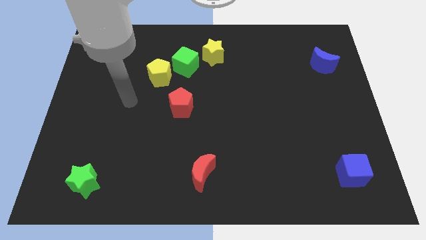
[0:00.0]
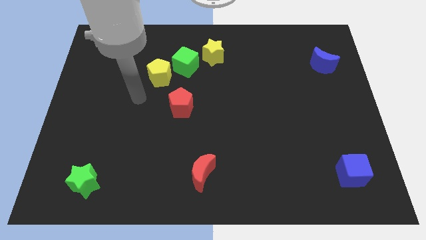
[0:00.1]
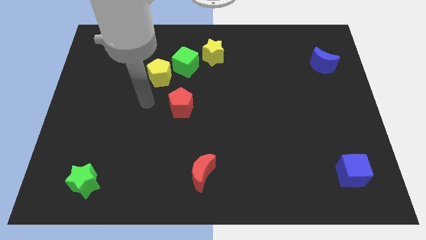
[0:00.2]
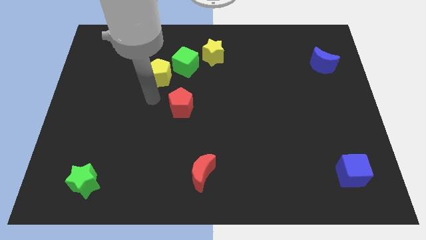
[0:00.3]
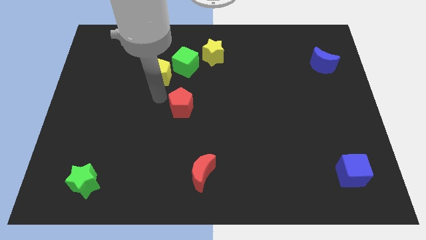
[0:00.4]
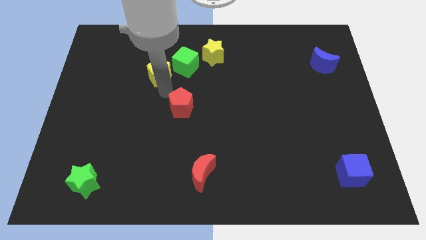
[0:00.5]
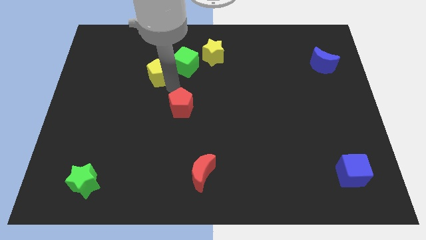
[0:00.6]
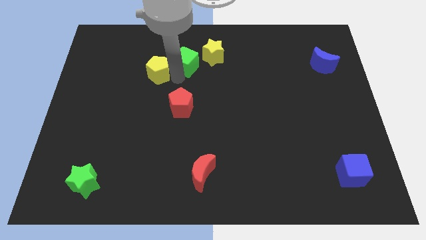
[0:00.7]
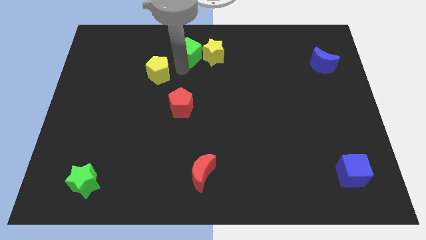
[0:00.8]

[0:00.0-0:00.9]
separate the yellow pentagon from the green cube

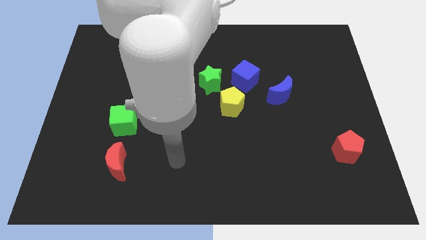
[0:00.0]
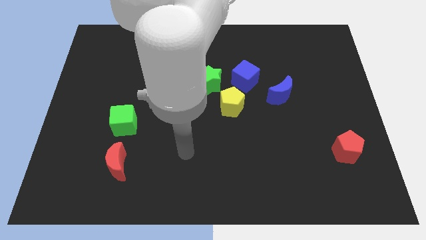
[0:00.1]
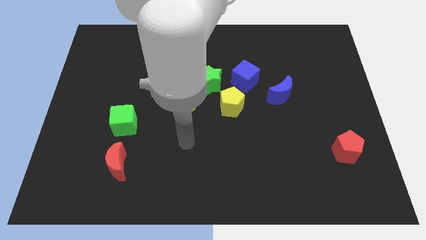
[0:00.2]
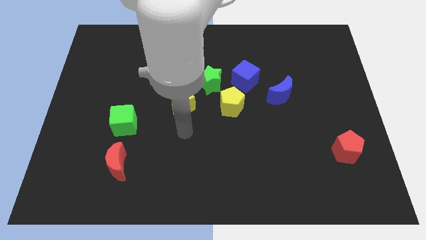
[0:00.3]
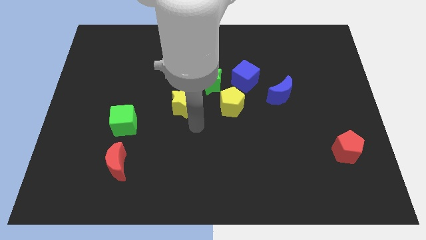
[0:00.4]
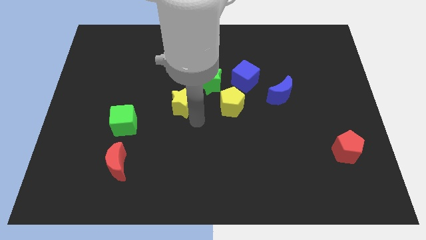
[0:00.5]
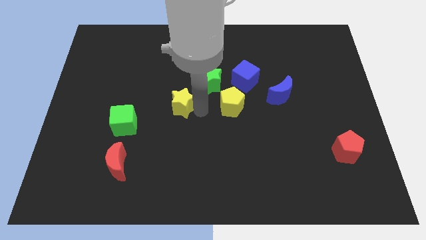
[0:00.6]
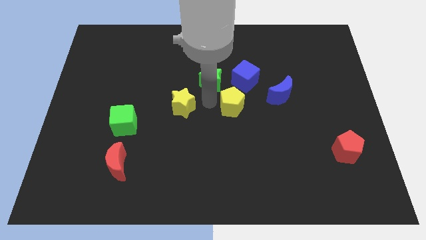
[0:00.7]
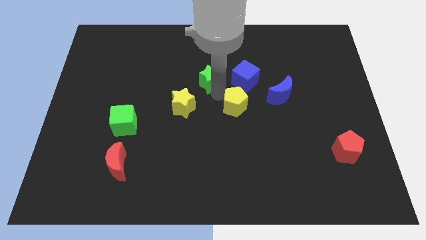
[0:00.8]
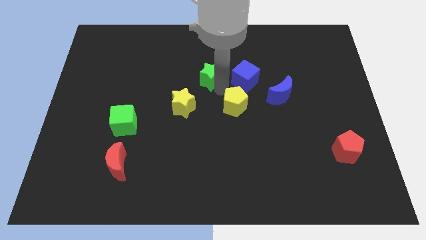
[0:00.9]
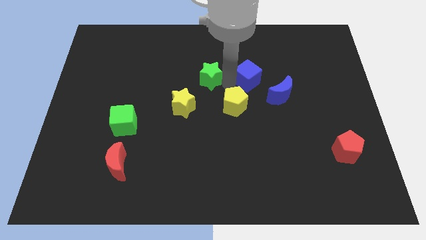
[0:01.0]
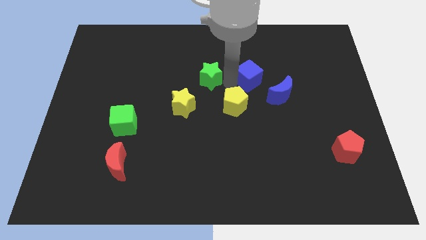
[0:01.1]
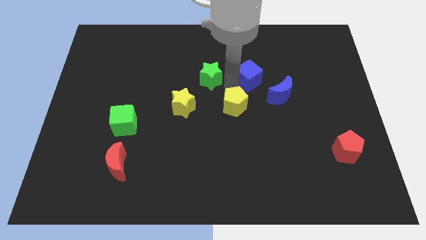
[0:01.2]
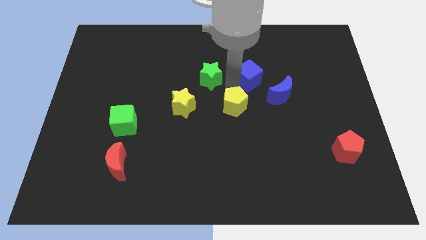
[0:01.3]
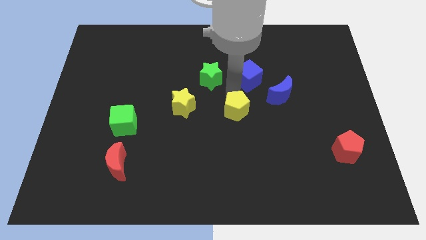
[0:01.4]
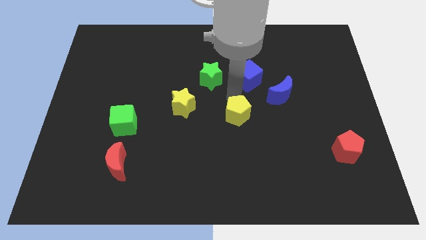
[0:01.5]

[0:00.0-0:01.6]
move the yellow pentagon away from the green star and blue cube

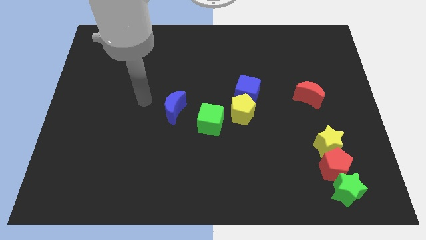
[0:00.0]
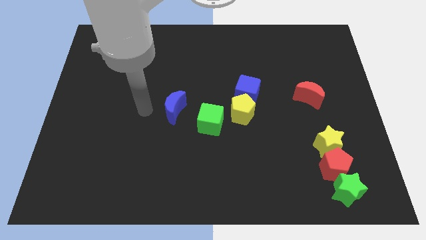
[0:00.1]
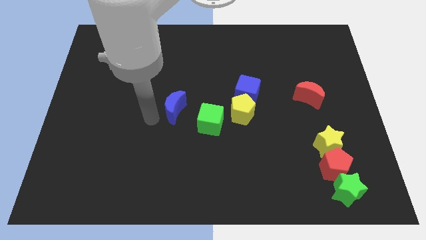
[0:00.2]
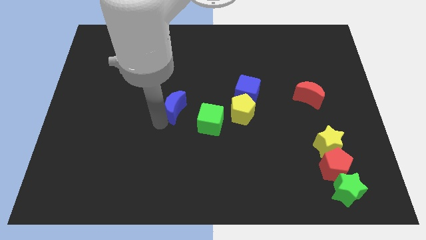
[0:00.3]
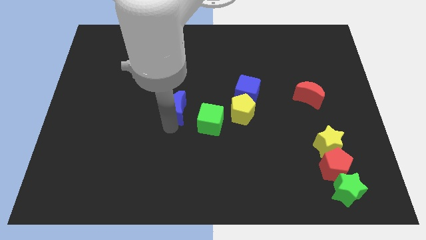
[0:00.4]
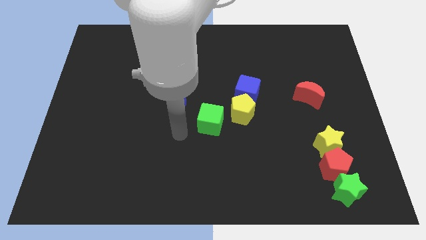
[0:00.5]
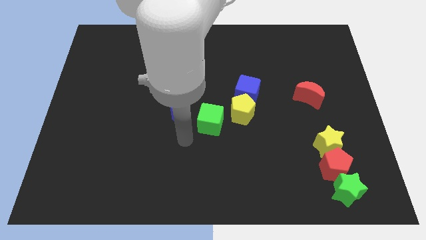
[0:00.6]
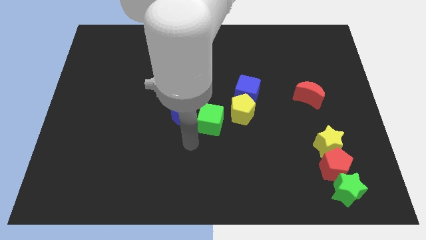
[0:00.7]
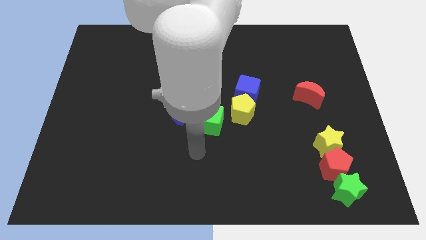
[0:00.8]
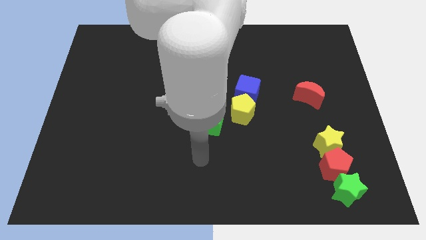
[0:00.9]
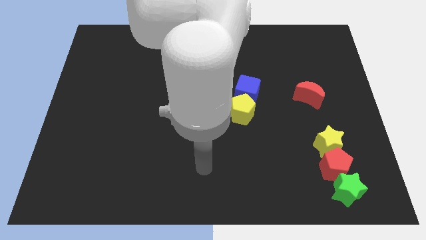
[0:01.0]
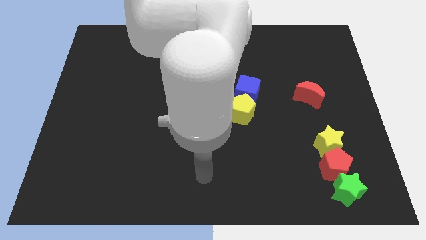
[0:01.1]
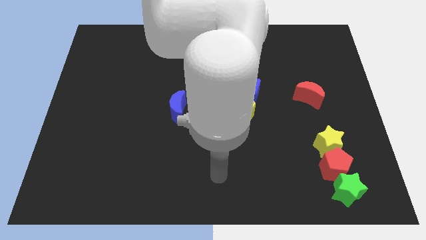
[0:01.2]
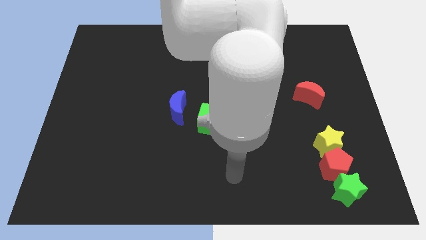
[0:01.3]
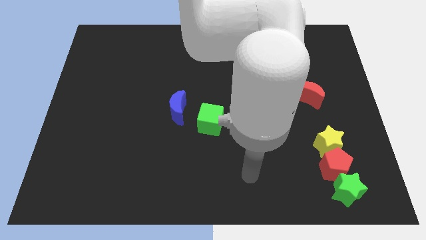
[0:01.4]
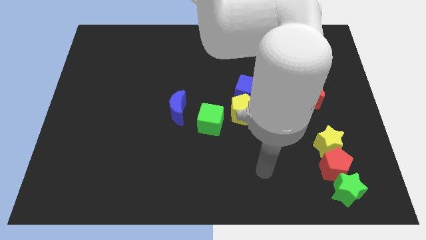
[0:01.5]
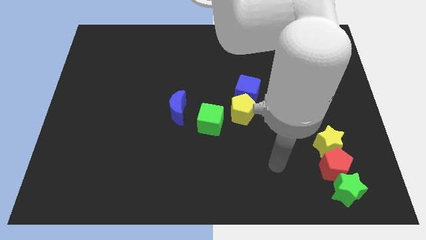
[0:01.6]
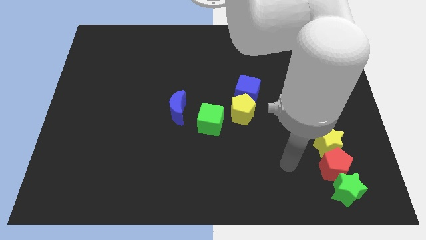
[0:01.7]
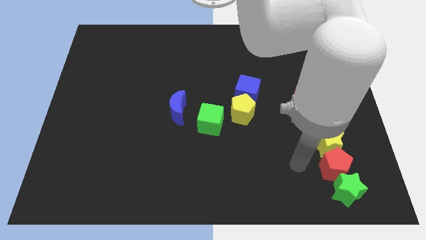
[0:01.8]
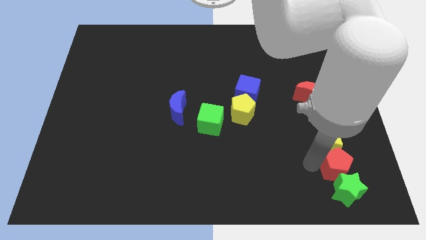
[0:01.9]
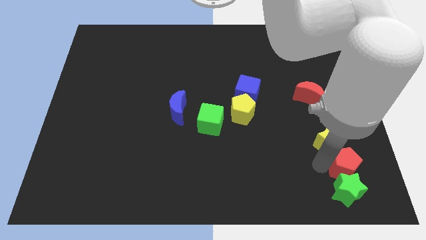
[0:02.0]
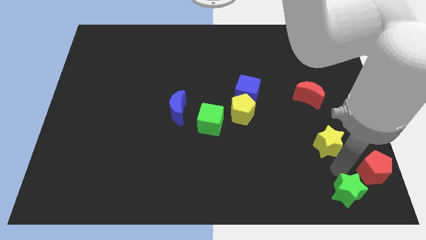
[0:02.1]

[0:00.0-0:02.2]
pull the yellow star apart from the red pentagon

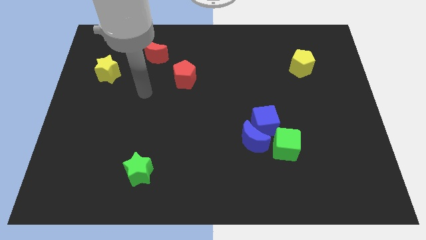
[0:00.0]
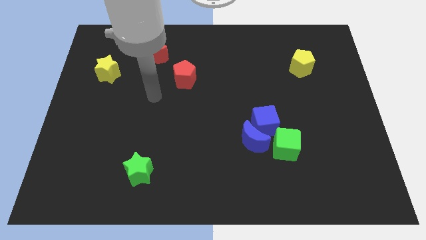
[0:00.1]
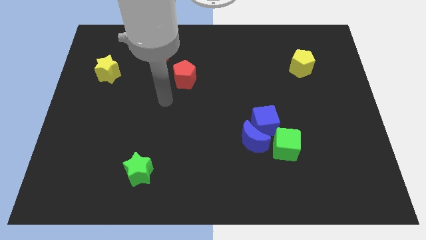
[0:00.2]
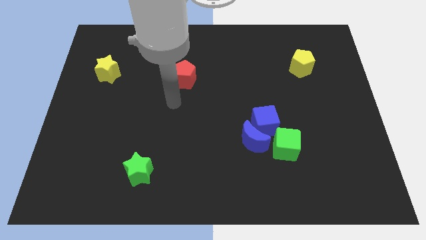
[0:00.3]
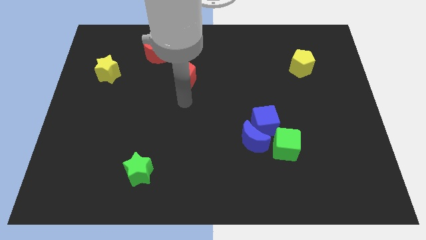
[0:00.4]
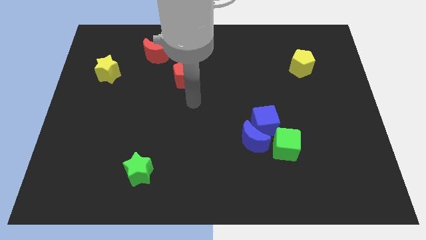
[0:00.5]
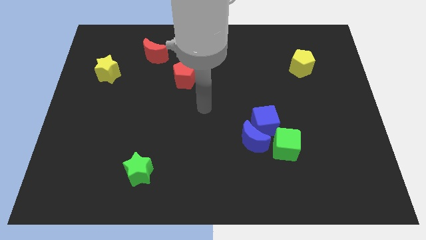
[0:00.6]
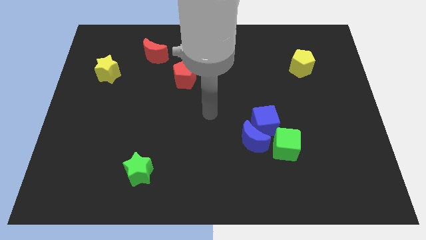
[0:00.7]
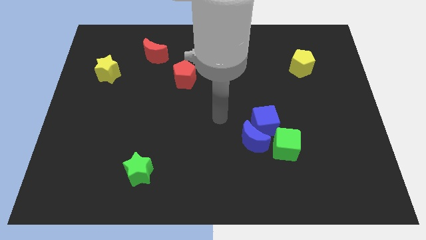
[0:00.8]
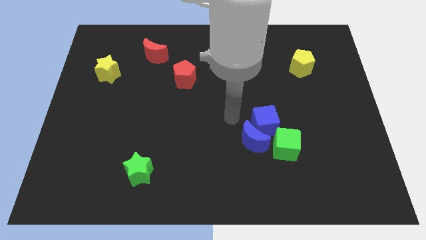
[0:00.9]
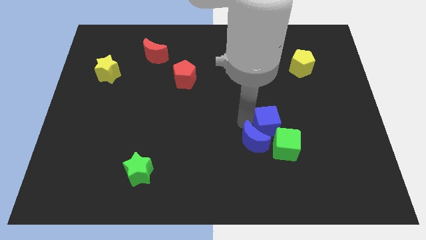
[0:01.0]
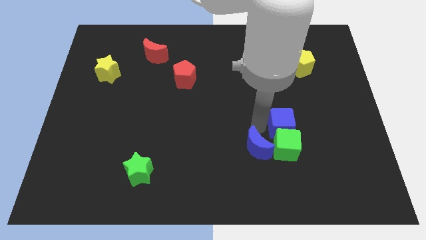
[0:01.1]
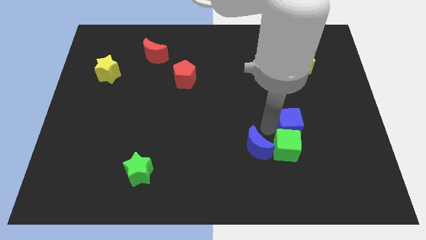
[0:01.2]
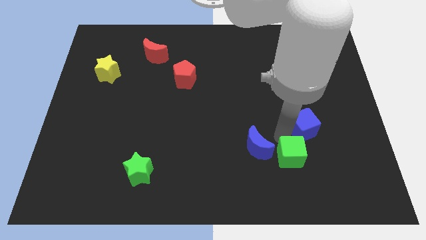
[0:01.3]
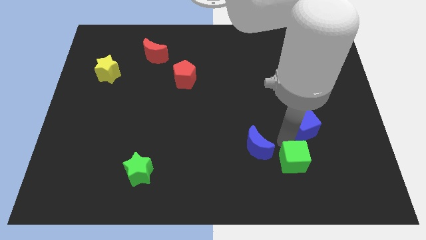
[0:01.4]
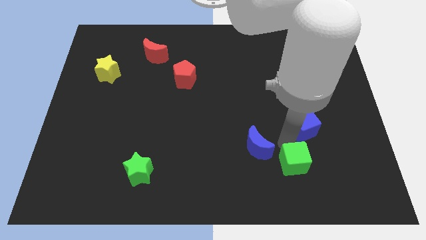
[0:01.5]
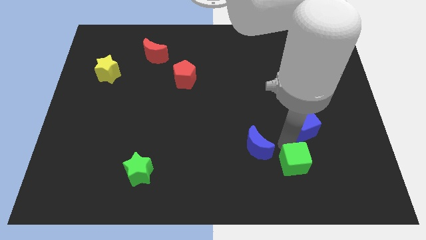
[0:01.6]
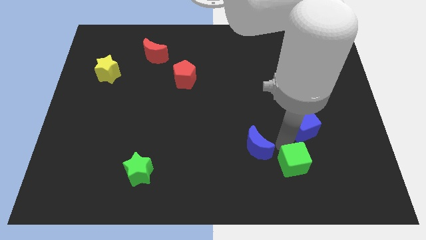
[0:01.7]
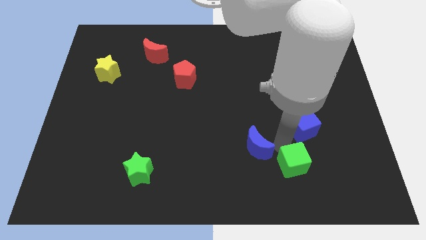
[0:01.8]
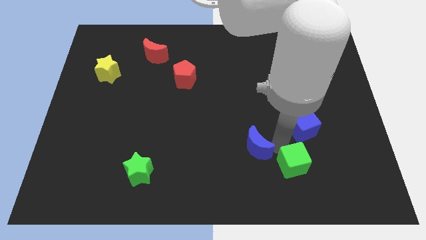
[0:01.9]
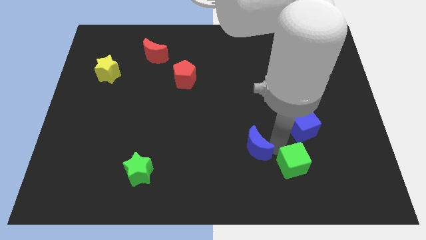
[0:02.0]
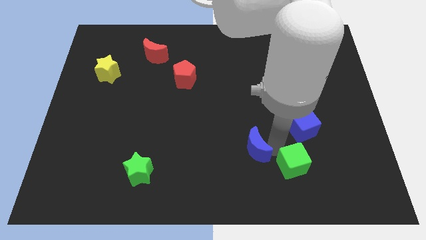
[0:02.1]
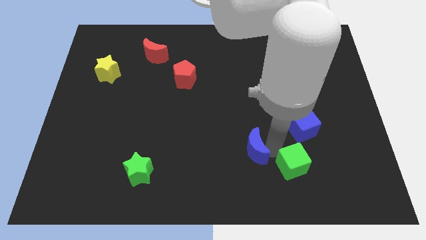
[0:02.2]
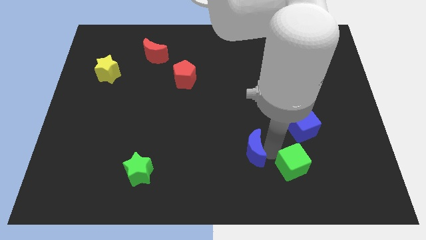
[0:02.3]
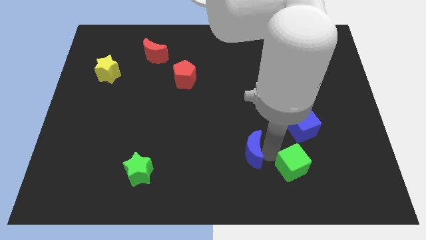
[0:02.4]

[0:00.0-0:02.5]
pull the blue moon apart from the blue cube and green cube

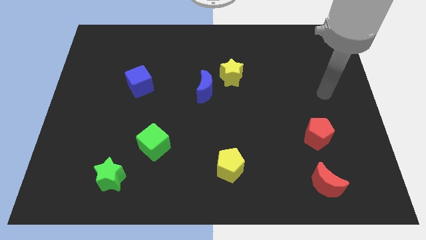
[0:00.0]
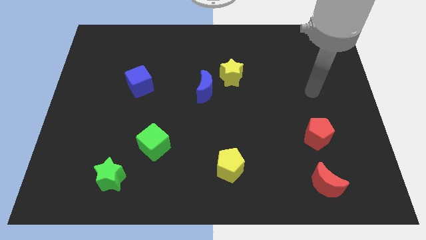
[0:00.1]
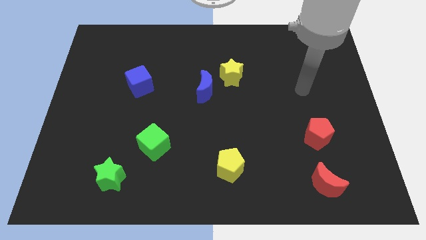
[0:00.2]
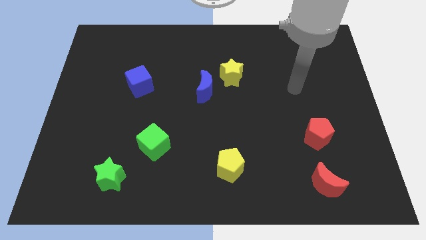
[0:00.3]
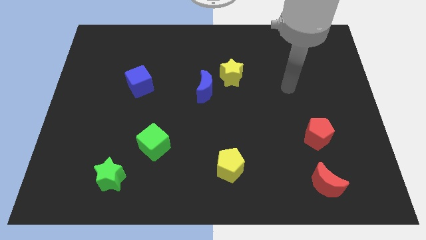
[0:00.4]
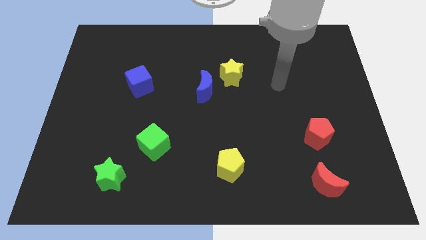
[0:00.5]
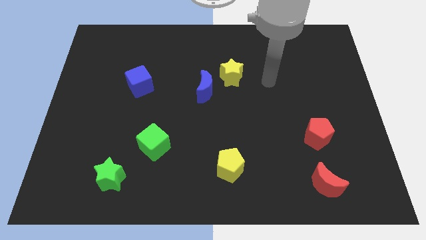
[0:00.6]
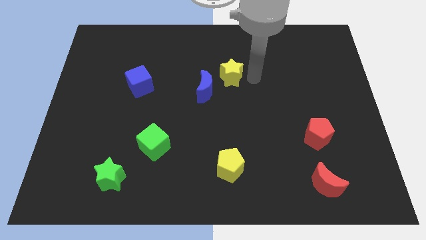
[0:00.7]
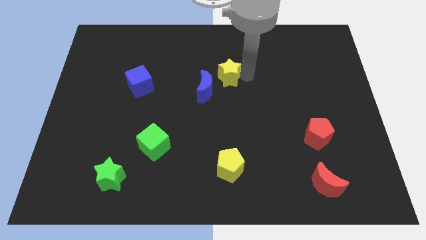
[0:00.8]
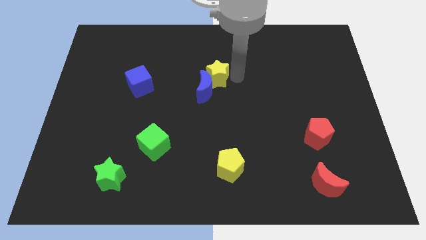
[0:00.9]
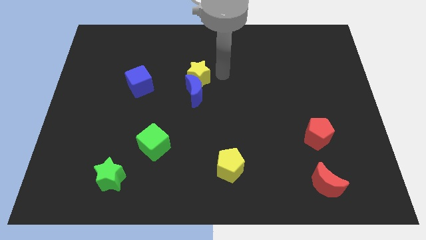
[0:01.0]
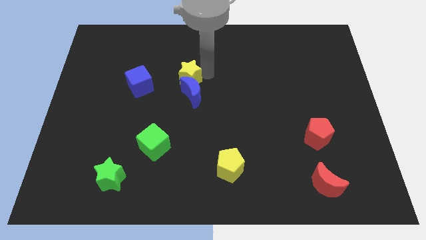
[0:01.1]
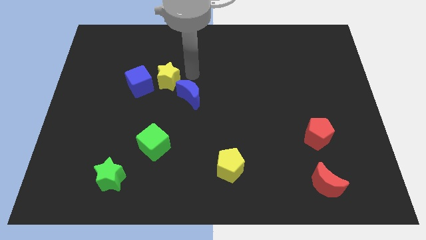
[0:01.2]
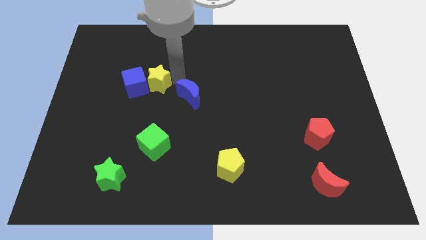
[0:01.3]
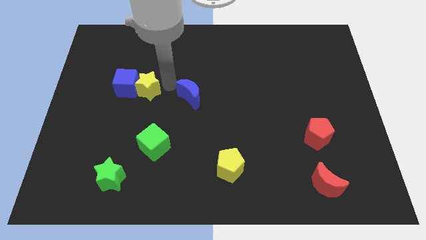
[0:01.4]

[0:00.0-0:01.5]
separate the blue moon from the yellow star

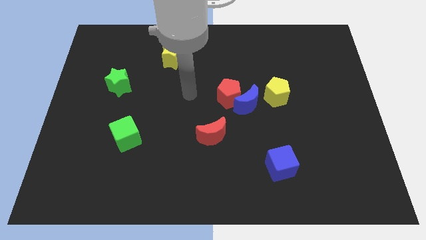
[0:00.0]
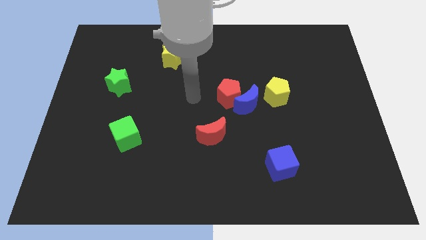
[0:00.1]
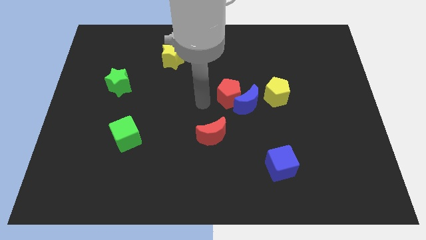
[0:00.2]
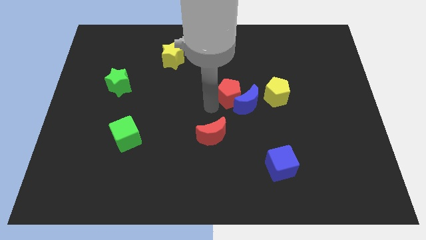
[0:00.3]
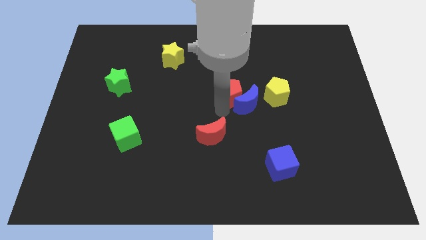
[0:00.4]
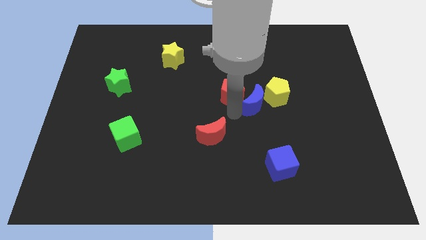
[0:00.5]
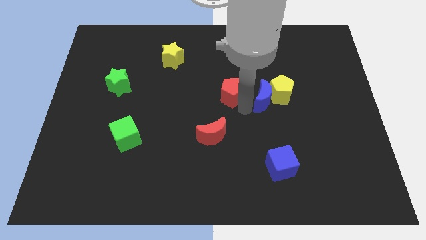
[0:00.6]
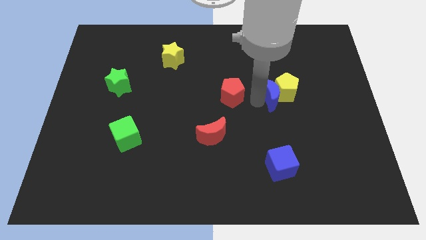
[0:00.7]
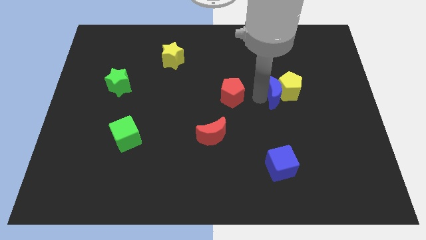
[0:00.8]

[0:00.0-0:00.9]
separate the red pentagon from the blue moon
